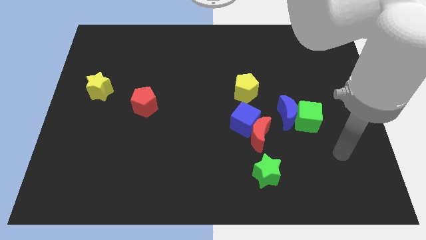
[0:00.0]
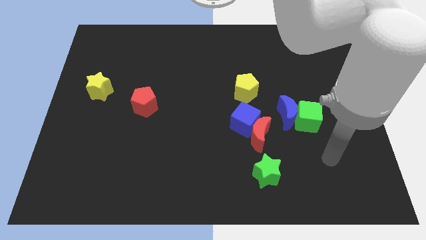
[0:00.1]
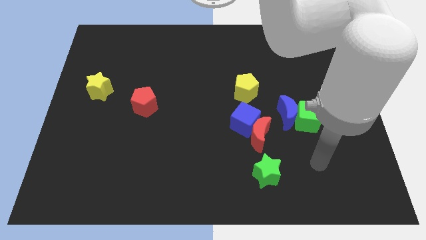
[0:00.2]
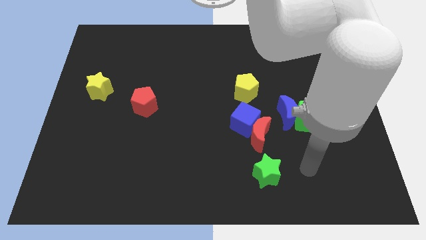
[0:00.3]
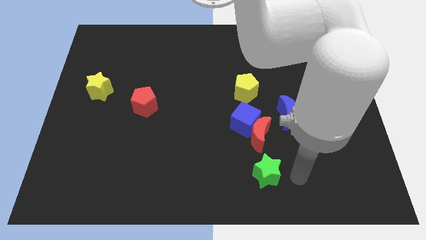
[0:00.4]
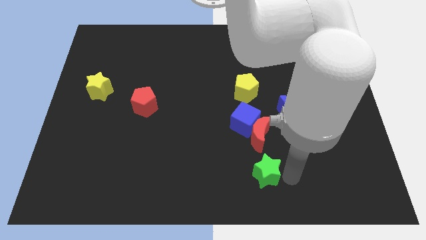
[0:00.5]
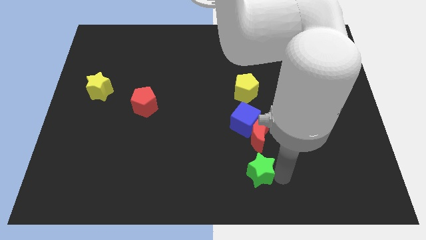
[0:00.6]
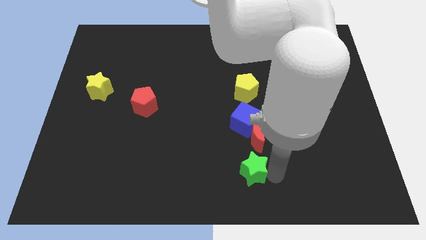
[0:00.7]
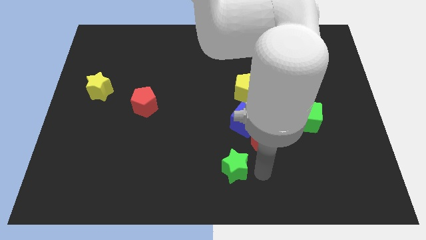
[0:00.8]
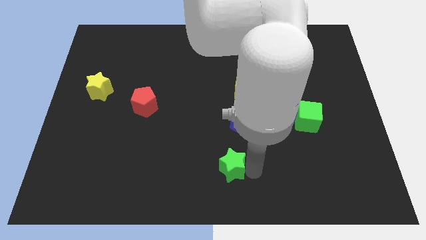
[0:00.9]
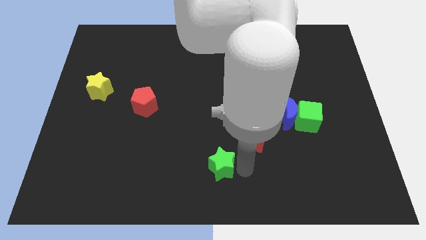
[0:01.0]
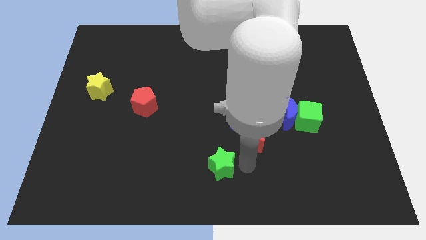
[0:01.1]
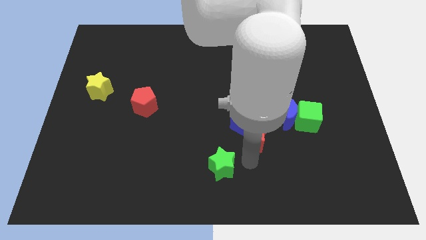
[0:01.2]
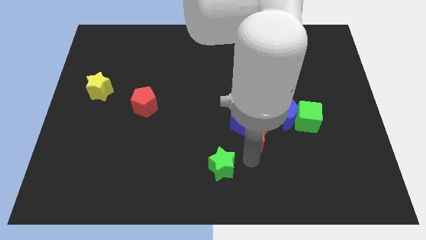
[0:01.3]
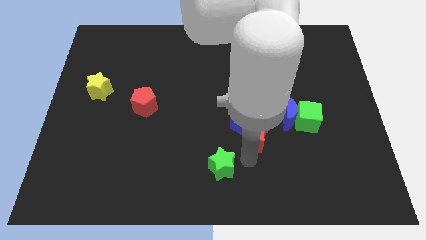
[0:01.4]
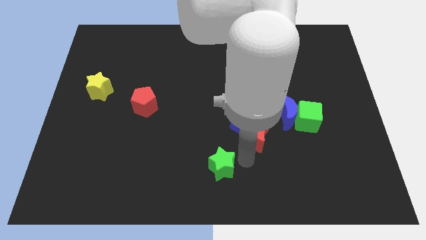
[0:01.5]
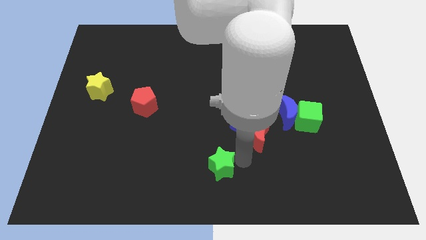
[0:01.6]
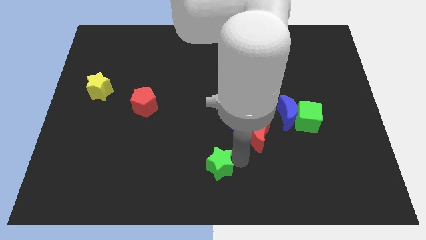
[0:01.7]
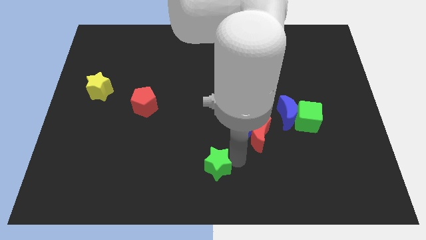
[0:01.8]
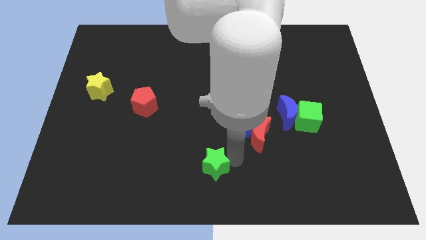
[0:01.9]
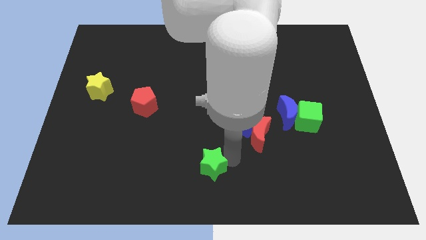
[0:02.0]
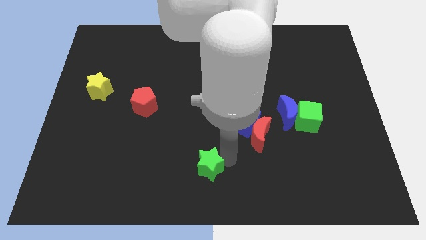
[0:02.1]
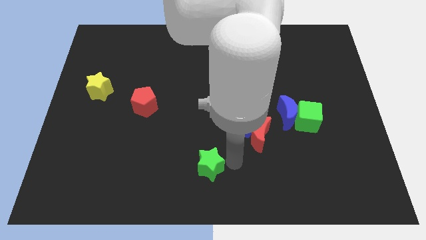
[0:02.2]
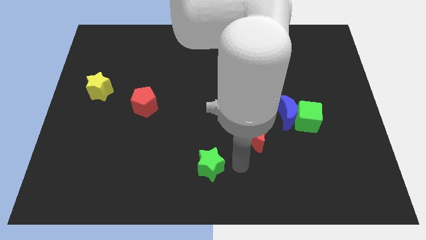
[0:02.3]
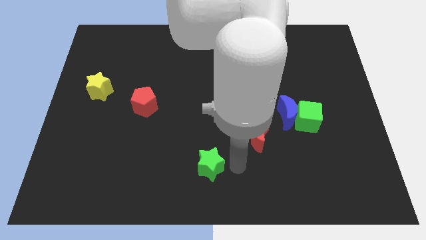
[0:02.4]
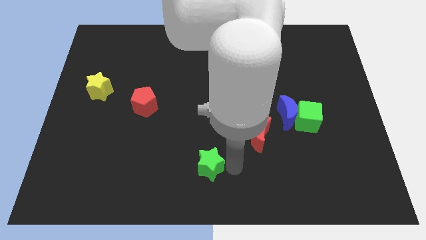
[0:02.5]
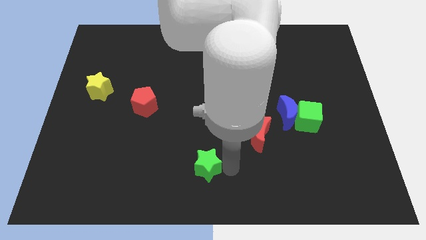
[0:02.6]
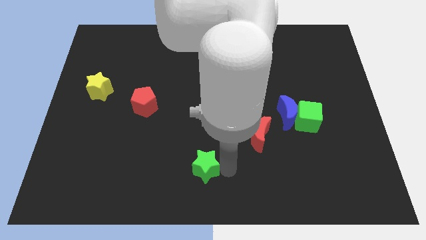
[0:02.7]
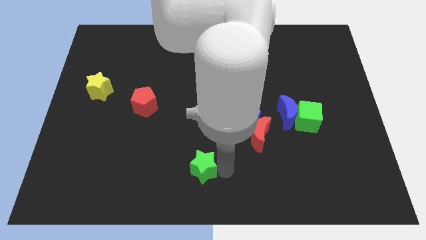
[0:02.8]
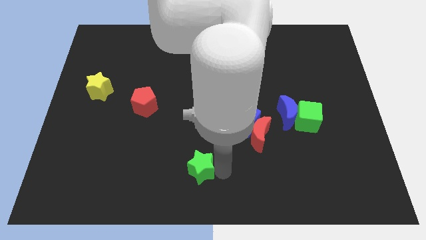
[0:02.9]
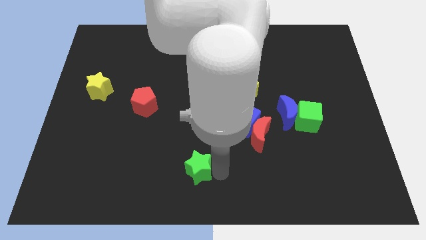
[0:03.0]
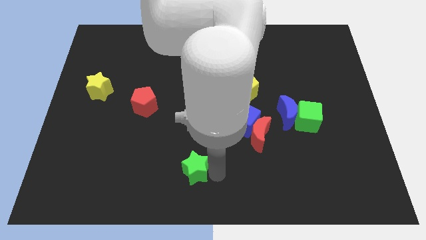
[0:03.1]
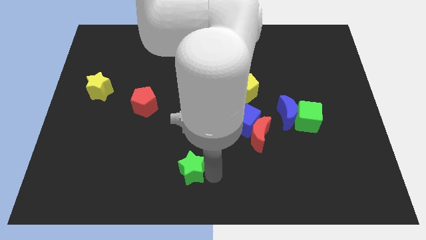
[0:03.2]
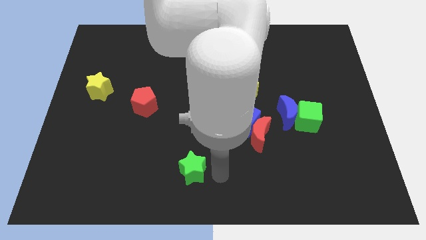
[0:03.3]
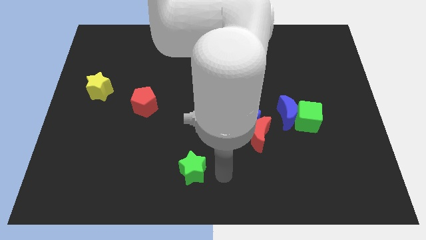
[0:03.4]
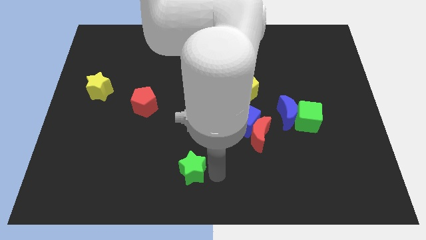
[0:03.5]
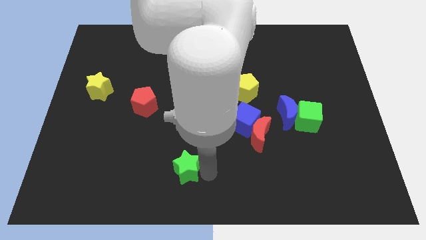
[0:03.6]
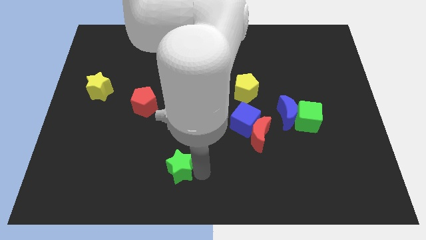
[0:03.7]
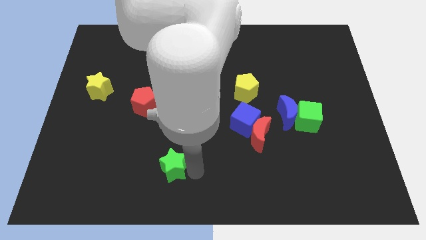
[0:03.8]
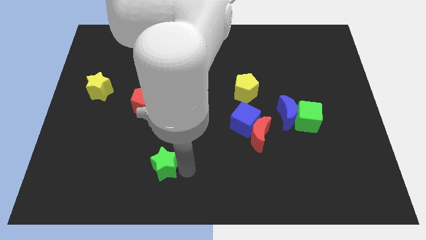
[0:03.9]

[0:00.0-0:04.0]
slide the green star to the left

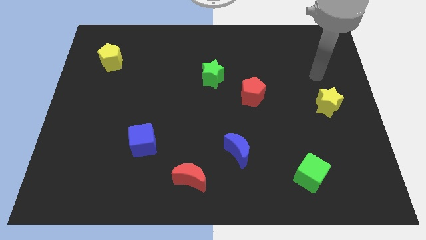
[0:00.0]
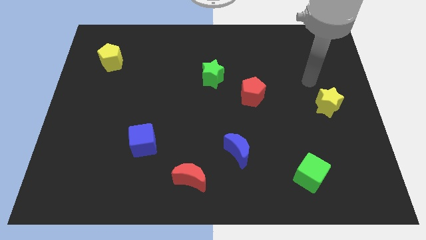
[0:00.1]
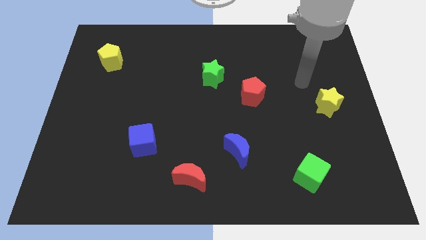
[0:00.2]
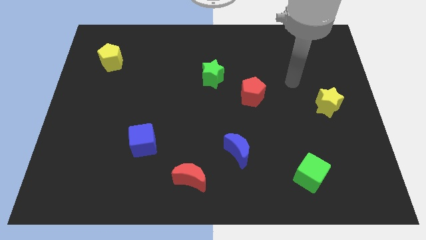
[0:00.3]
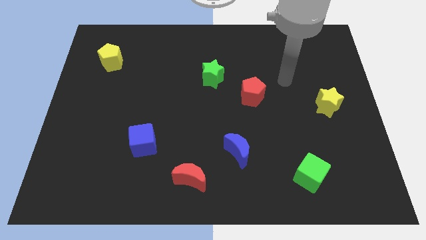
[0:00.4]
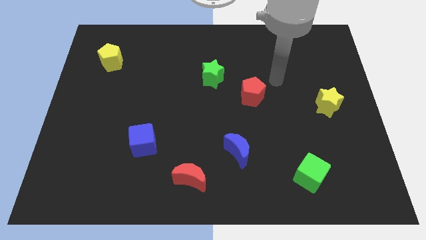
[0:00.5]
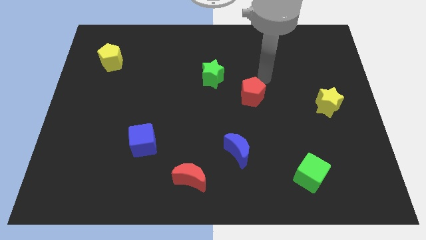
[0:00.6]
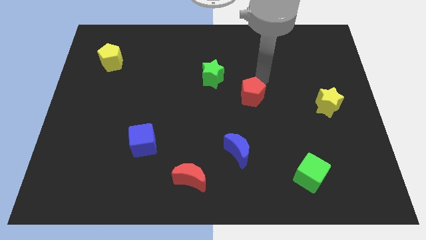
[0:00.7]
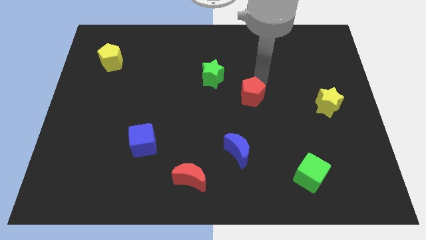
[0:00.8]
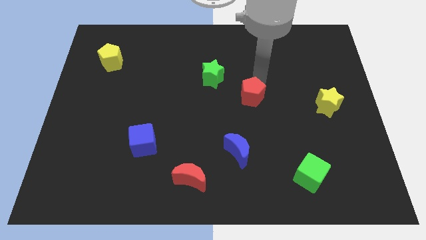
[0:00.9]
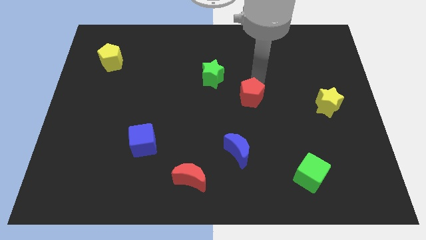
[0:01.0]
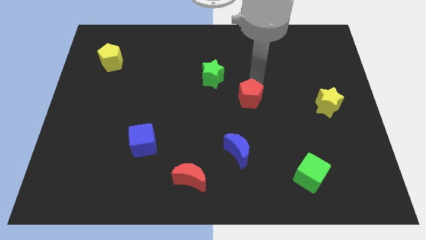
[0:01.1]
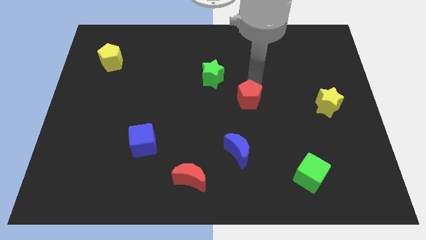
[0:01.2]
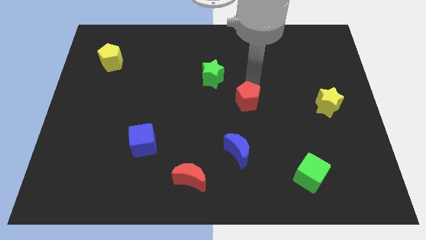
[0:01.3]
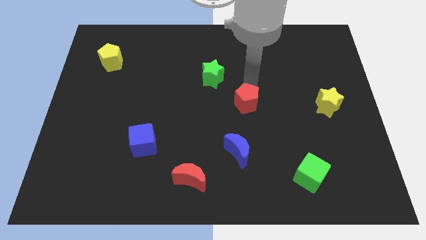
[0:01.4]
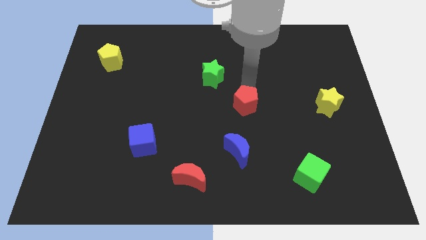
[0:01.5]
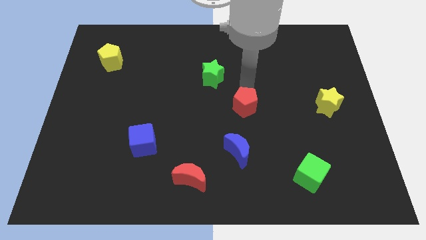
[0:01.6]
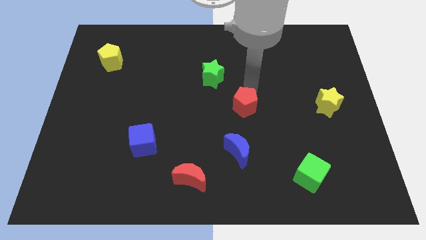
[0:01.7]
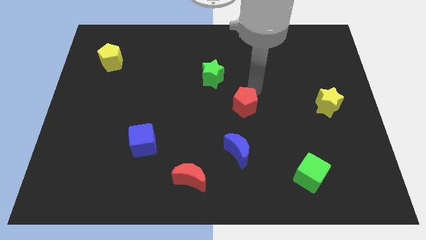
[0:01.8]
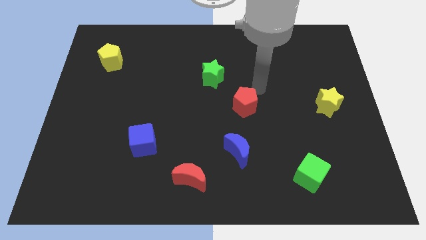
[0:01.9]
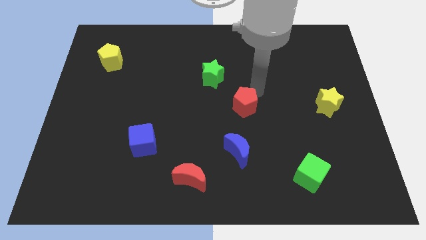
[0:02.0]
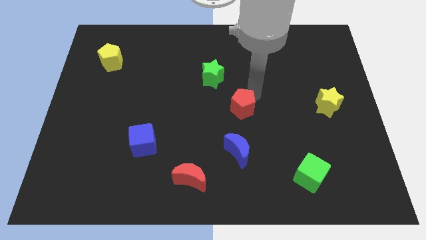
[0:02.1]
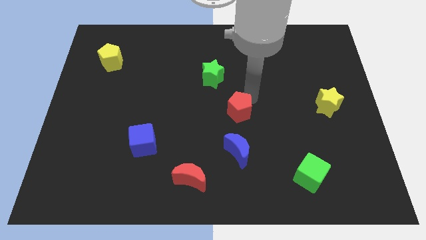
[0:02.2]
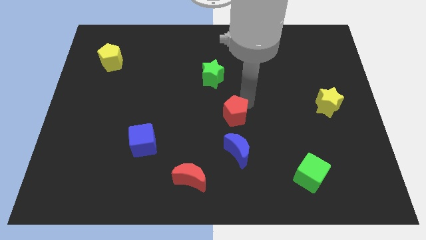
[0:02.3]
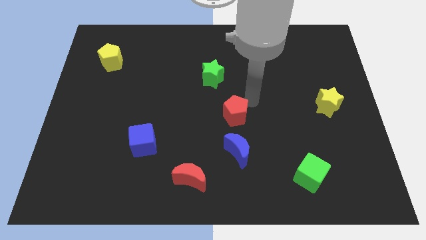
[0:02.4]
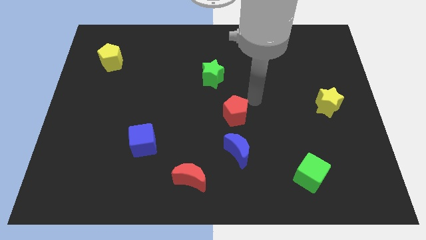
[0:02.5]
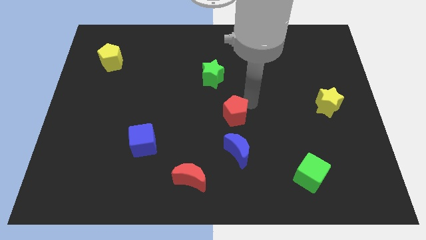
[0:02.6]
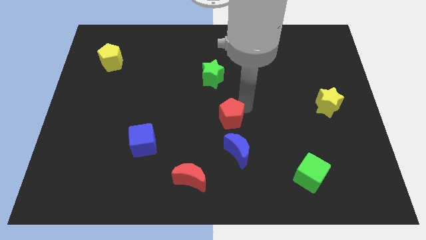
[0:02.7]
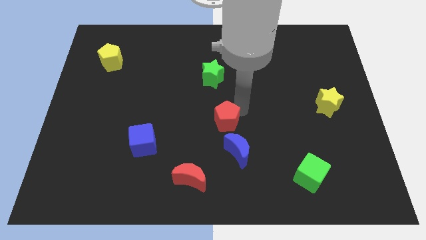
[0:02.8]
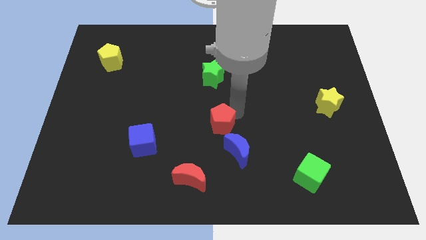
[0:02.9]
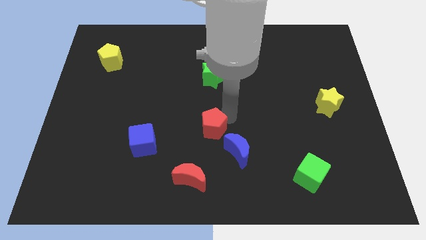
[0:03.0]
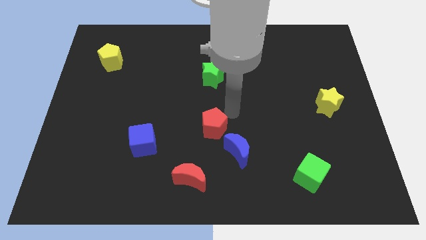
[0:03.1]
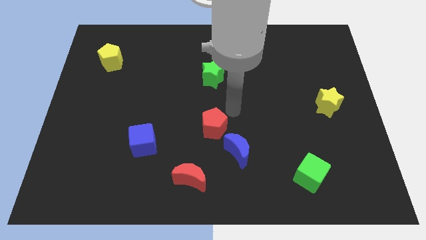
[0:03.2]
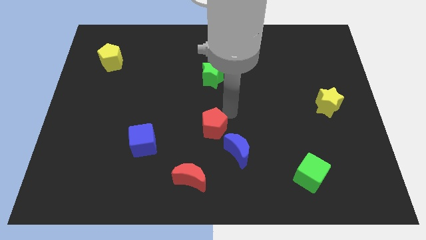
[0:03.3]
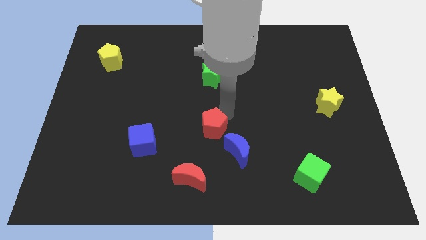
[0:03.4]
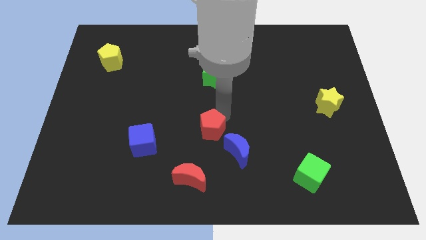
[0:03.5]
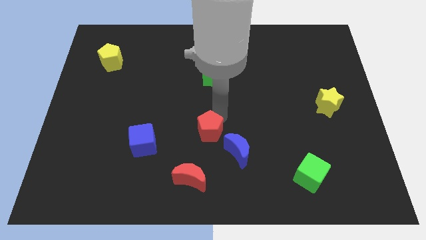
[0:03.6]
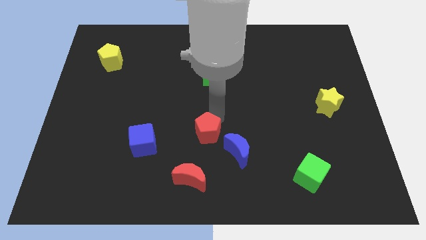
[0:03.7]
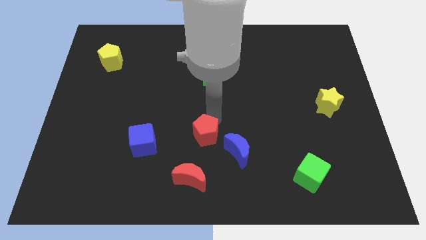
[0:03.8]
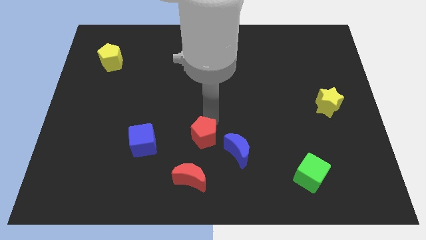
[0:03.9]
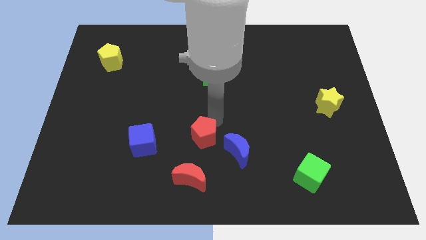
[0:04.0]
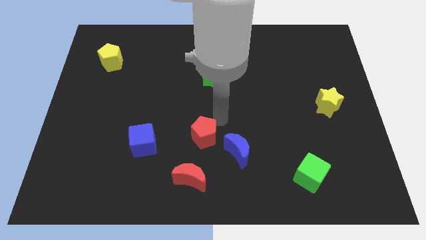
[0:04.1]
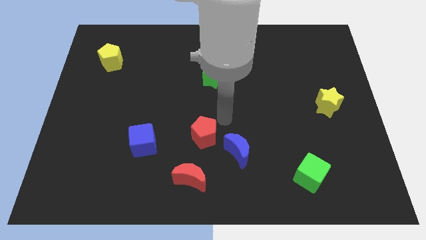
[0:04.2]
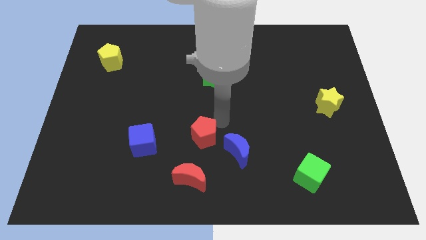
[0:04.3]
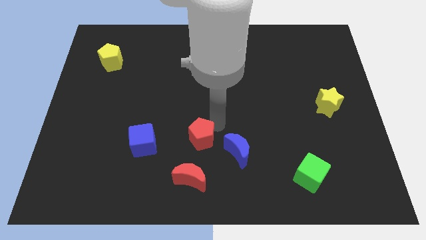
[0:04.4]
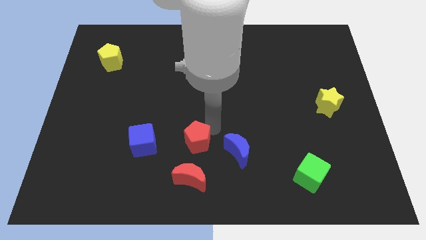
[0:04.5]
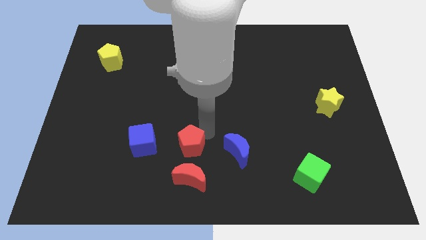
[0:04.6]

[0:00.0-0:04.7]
push the red pentagon downwards and left
